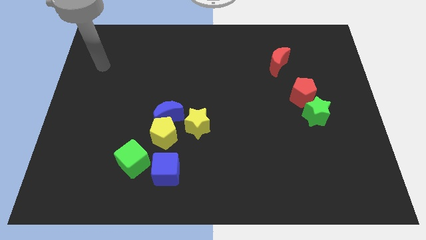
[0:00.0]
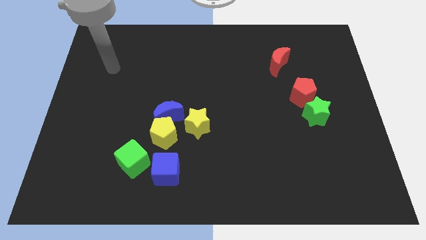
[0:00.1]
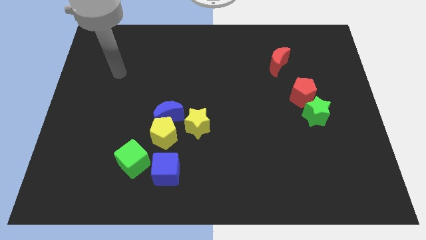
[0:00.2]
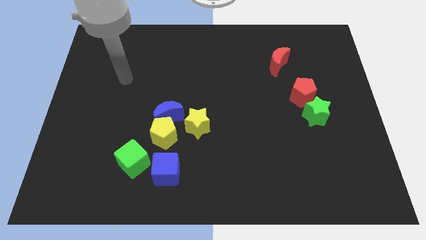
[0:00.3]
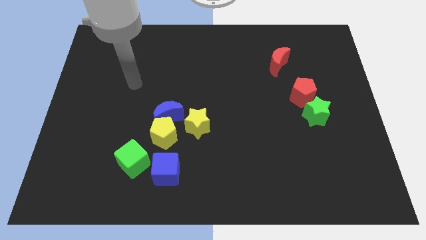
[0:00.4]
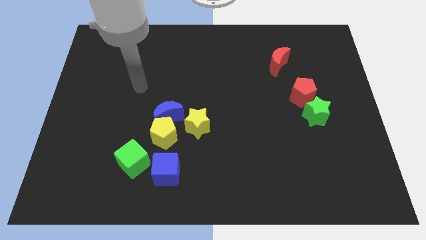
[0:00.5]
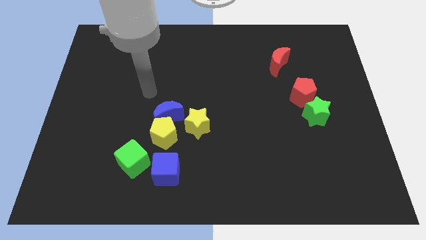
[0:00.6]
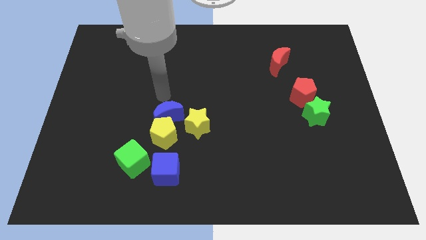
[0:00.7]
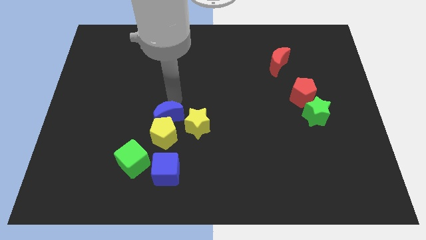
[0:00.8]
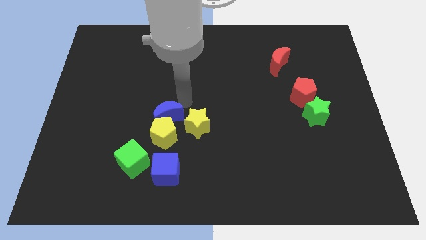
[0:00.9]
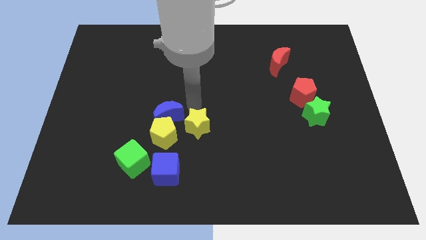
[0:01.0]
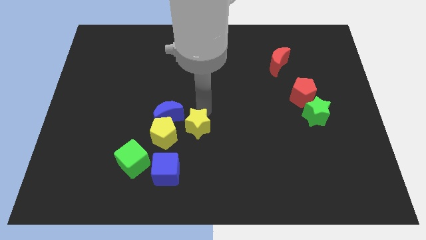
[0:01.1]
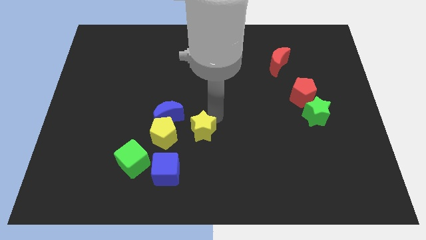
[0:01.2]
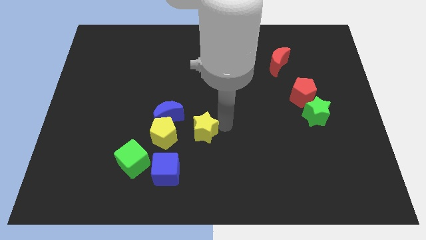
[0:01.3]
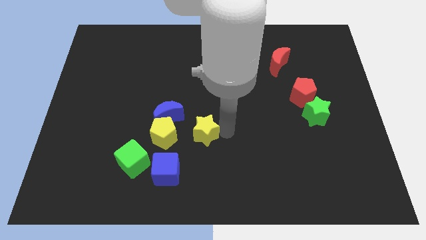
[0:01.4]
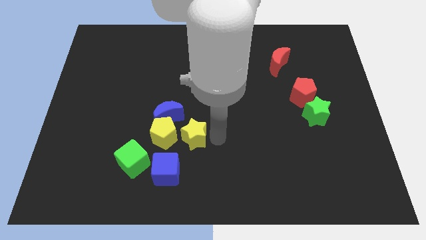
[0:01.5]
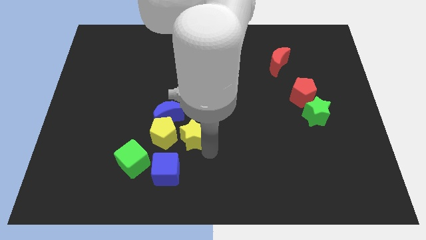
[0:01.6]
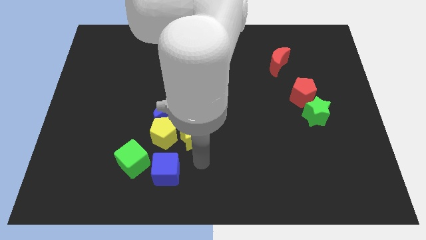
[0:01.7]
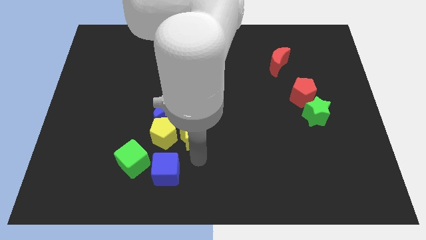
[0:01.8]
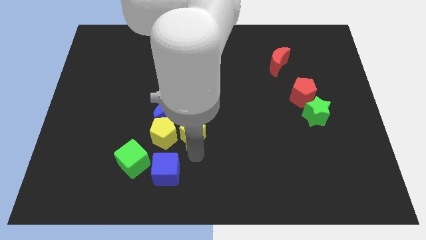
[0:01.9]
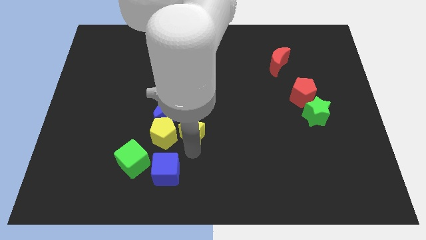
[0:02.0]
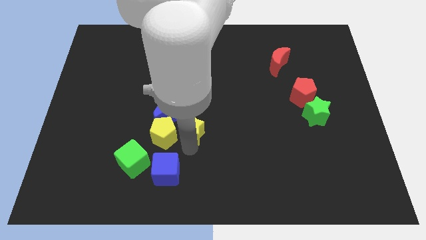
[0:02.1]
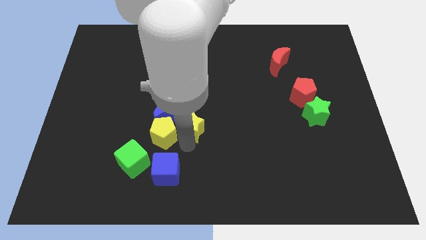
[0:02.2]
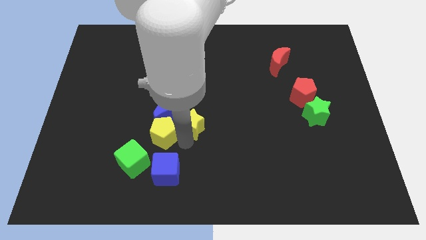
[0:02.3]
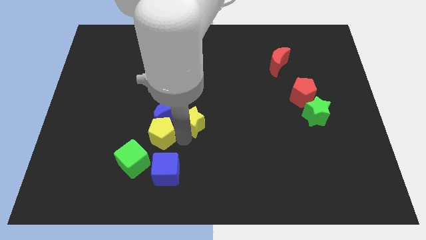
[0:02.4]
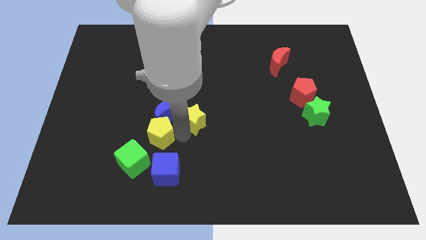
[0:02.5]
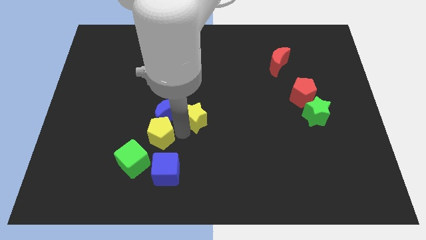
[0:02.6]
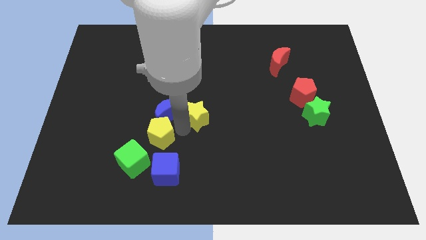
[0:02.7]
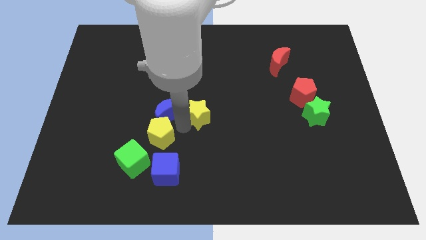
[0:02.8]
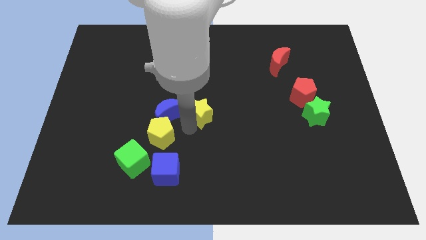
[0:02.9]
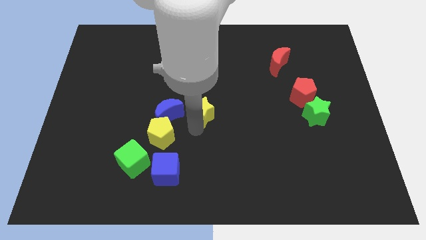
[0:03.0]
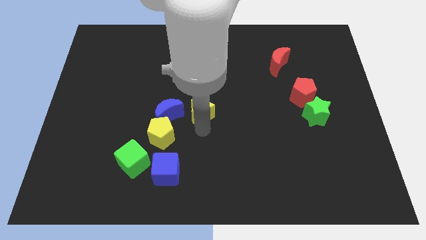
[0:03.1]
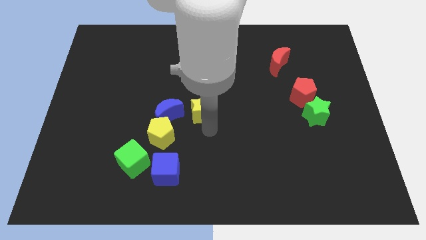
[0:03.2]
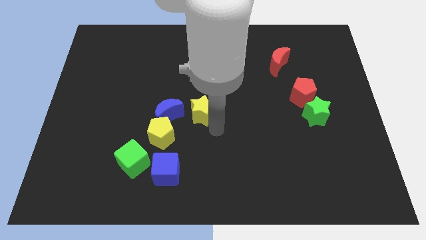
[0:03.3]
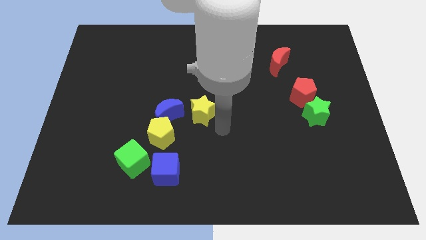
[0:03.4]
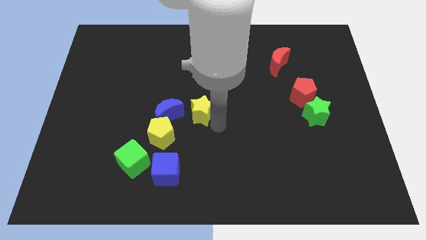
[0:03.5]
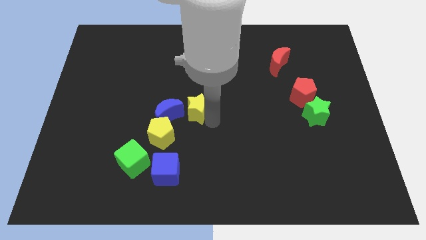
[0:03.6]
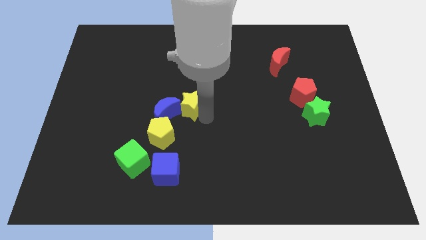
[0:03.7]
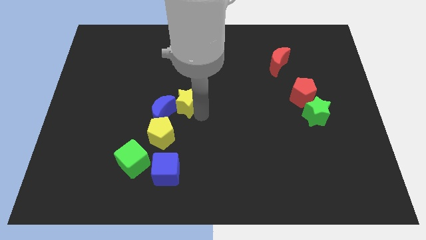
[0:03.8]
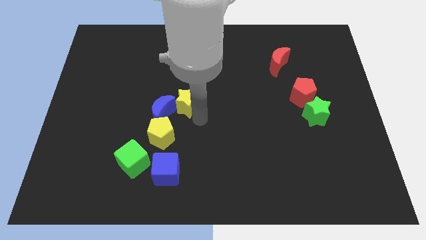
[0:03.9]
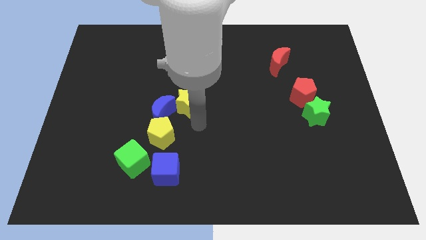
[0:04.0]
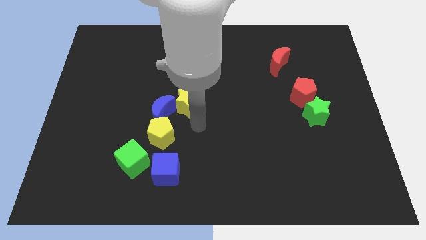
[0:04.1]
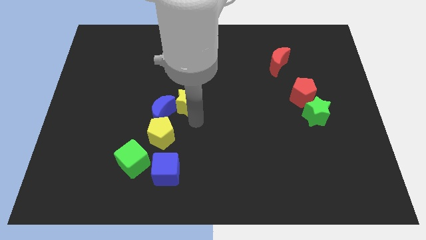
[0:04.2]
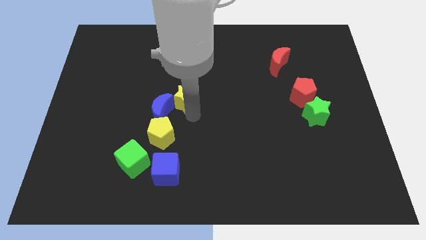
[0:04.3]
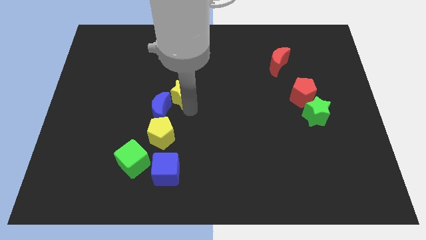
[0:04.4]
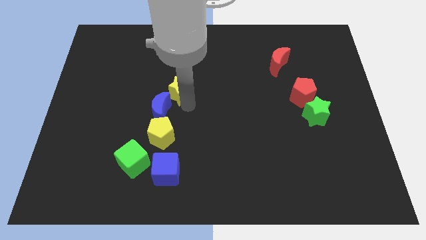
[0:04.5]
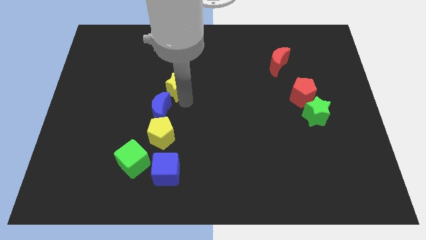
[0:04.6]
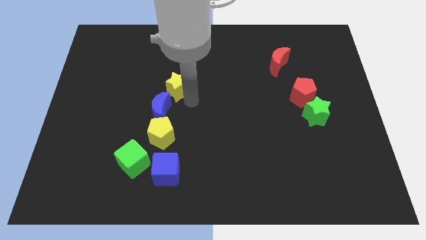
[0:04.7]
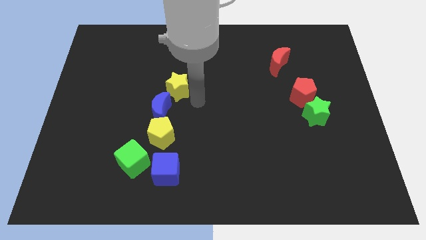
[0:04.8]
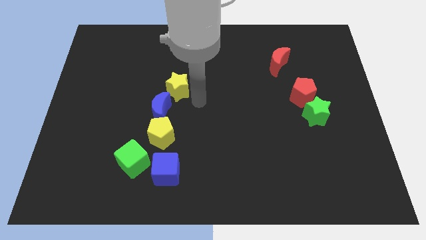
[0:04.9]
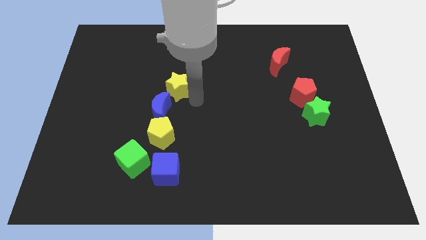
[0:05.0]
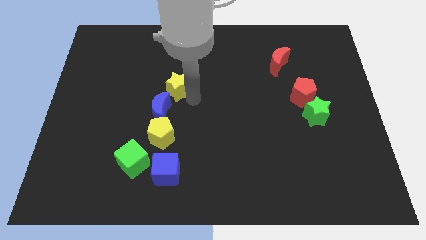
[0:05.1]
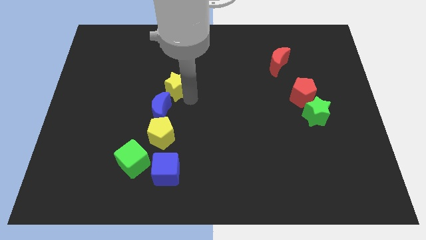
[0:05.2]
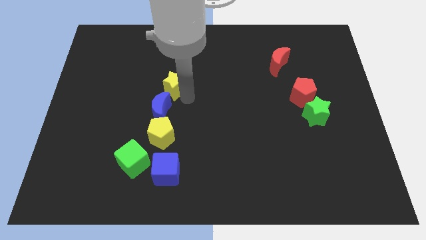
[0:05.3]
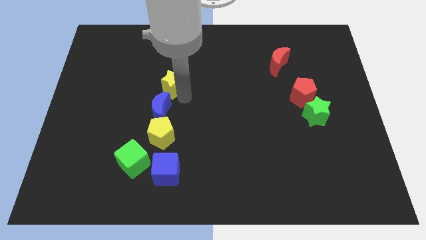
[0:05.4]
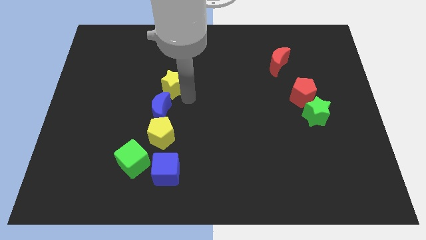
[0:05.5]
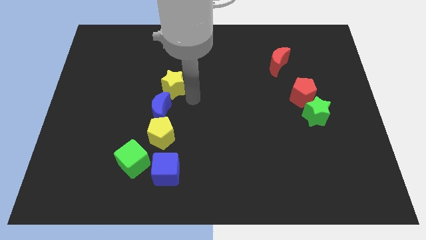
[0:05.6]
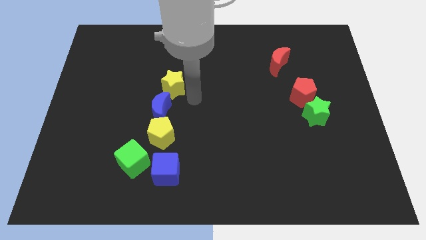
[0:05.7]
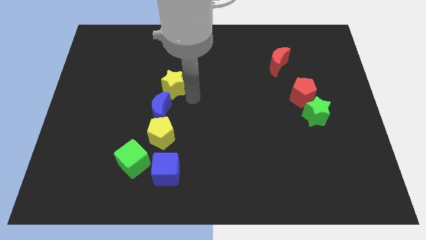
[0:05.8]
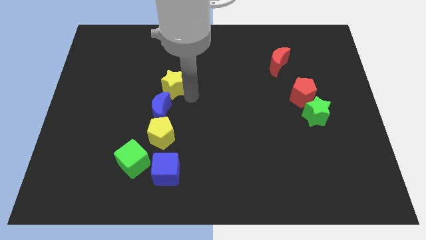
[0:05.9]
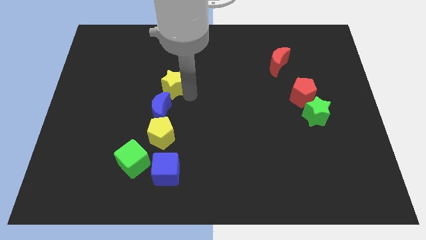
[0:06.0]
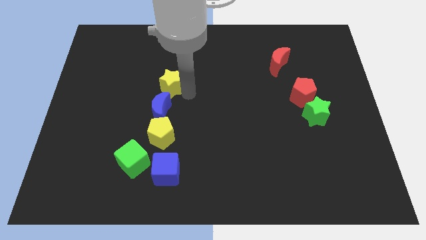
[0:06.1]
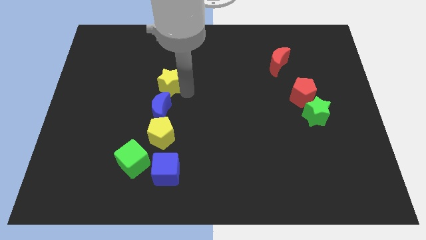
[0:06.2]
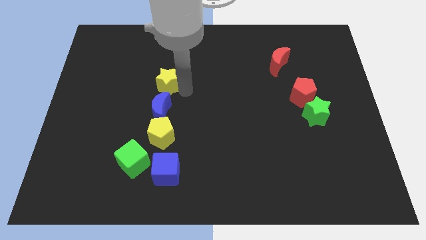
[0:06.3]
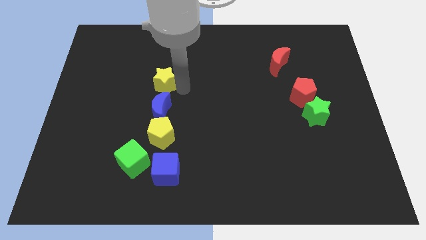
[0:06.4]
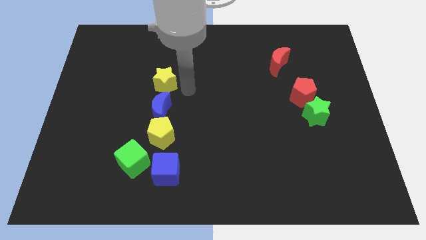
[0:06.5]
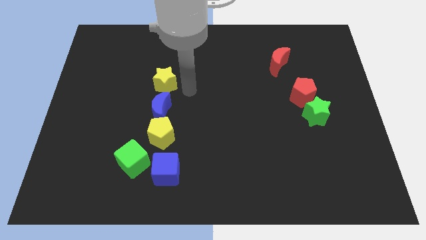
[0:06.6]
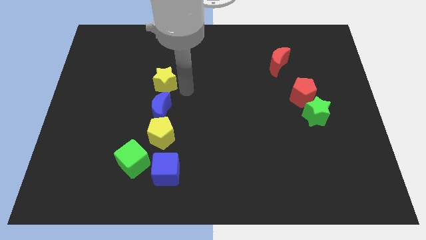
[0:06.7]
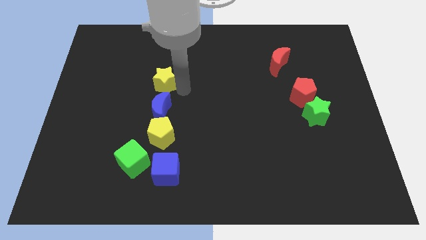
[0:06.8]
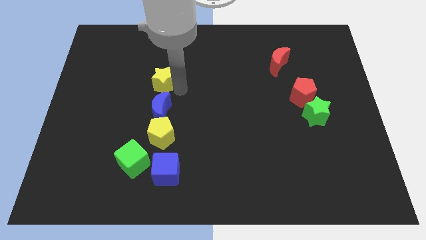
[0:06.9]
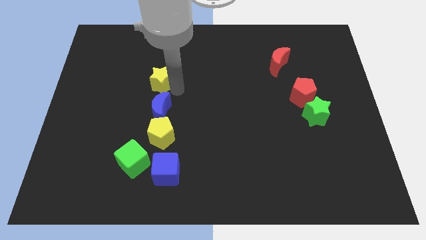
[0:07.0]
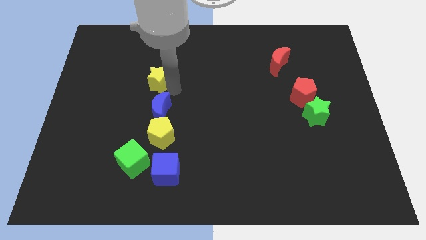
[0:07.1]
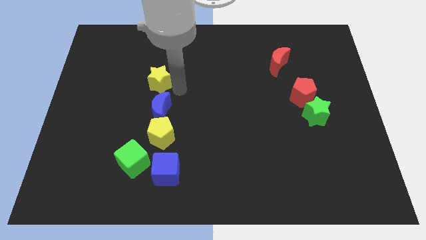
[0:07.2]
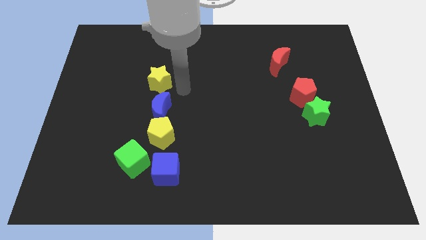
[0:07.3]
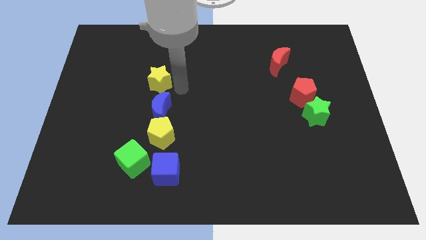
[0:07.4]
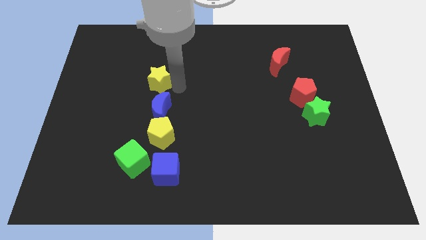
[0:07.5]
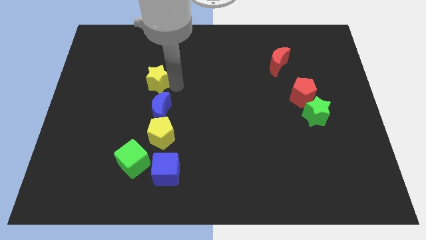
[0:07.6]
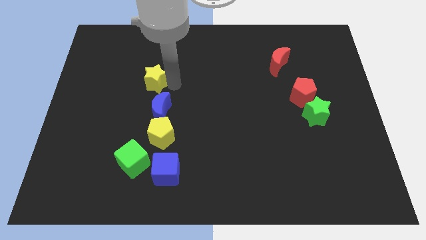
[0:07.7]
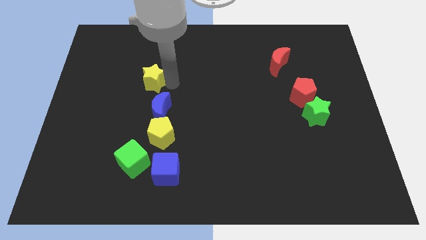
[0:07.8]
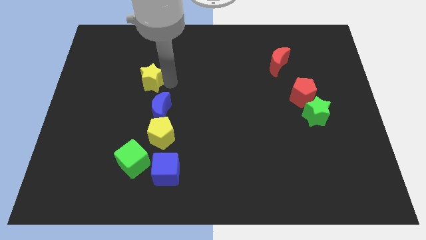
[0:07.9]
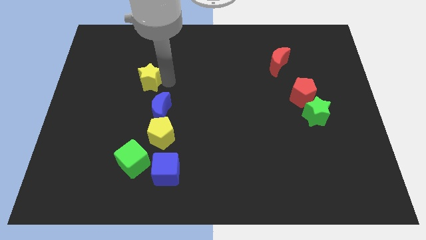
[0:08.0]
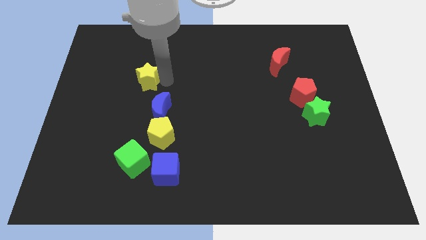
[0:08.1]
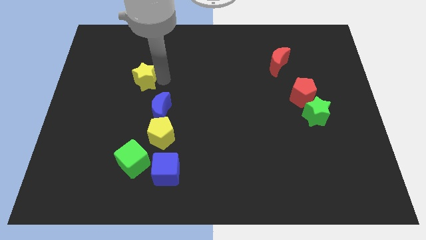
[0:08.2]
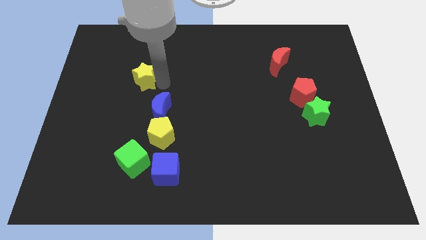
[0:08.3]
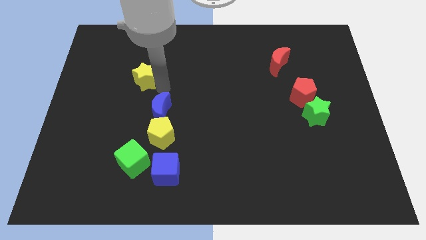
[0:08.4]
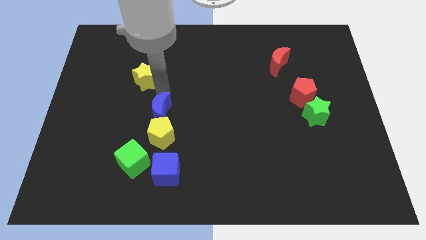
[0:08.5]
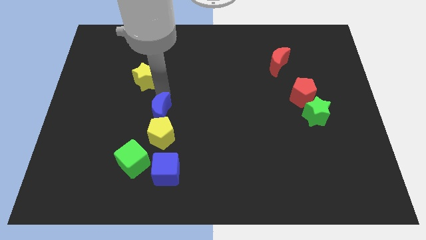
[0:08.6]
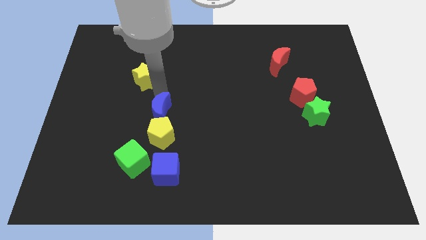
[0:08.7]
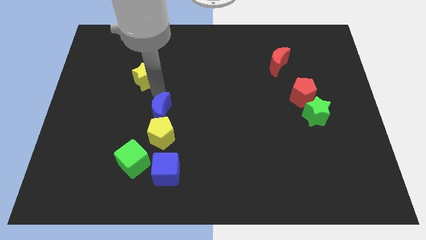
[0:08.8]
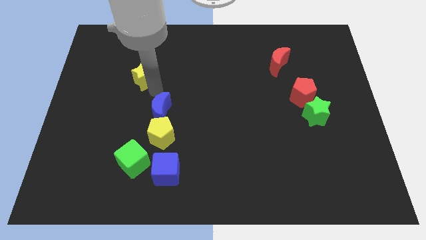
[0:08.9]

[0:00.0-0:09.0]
move the yellow star upwards and left diagonally
